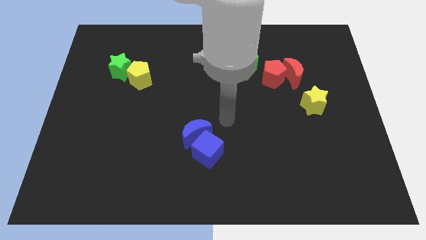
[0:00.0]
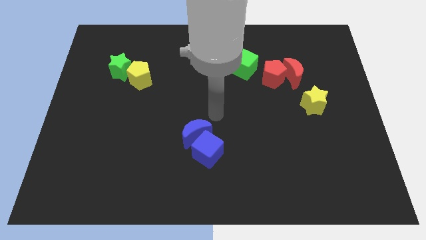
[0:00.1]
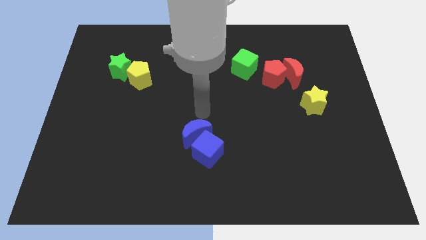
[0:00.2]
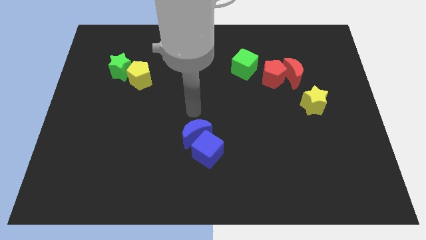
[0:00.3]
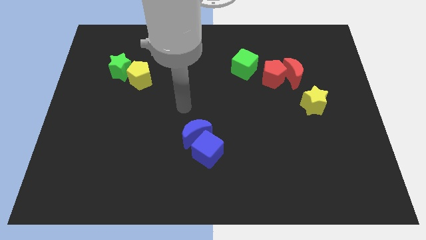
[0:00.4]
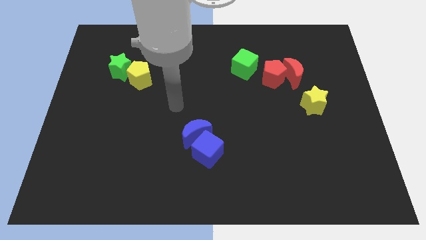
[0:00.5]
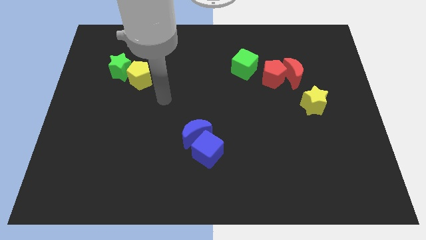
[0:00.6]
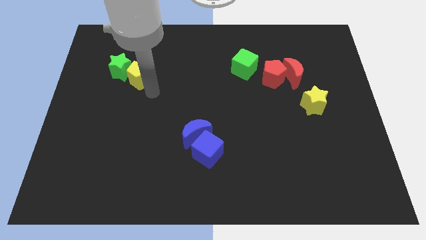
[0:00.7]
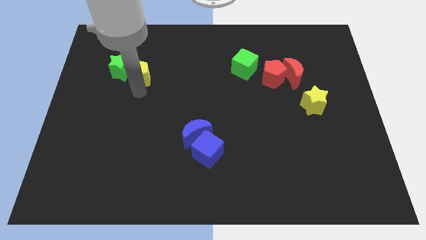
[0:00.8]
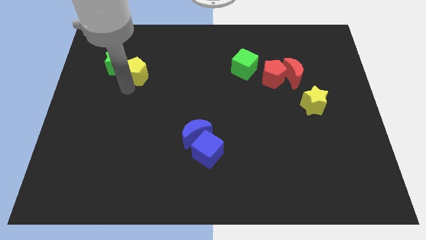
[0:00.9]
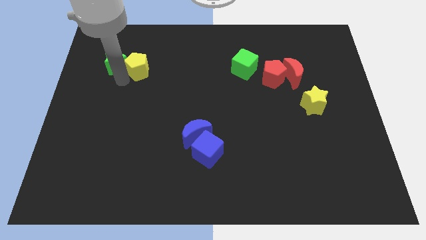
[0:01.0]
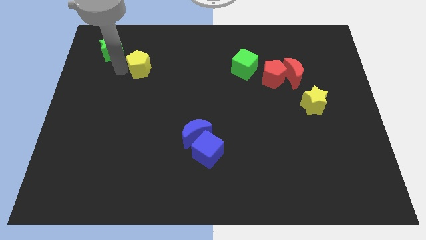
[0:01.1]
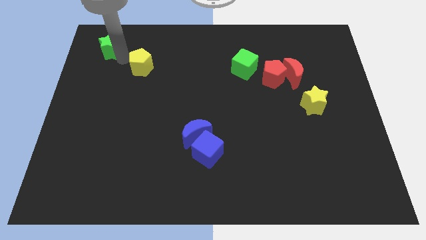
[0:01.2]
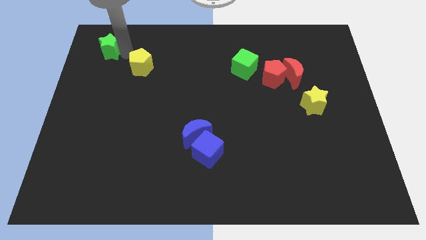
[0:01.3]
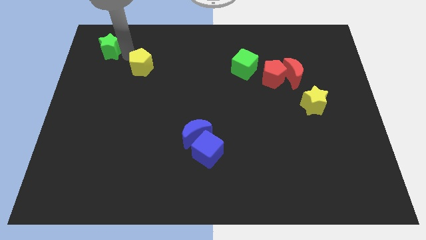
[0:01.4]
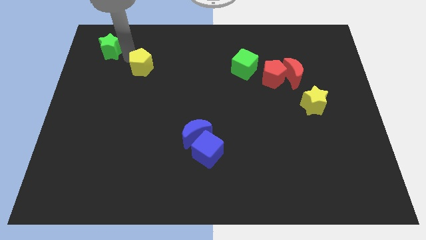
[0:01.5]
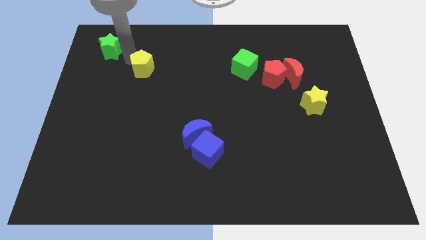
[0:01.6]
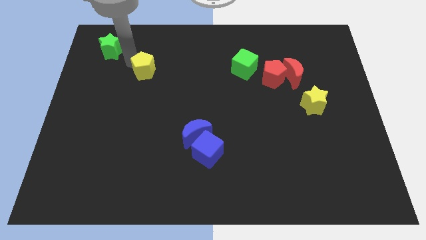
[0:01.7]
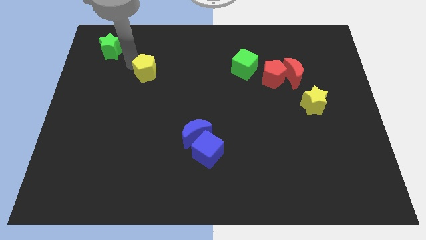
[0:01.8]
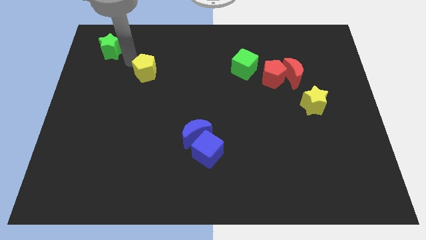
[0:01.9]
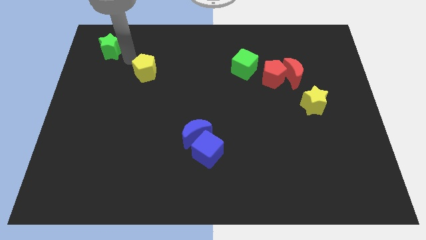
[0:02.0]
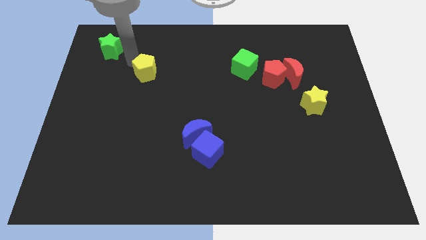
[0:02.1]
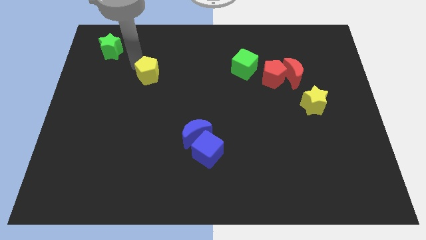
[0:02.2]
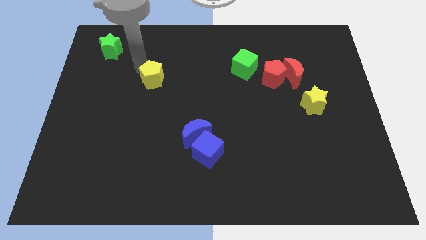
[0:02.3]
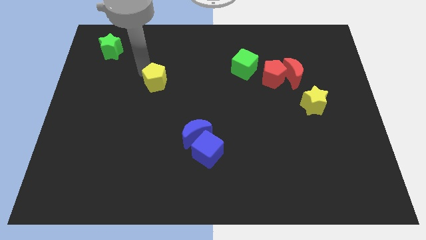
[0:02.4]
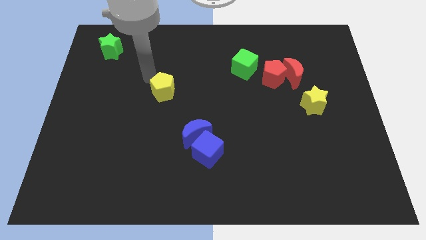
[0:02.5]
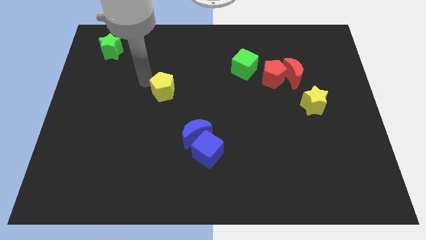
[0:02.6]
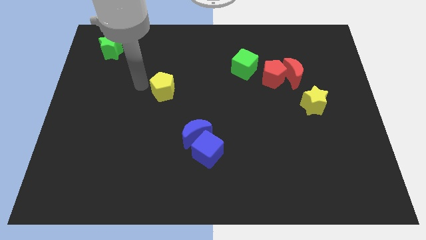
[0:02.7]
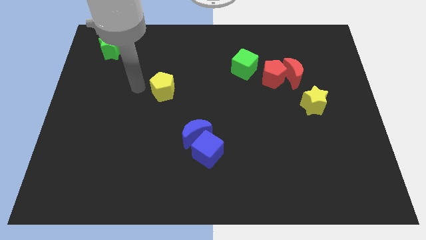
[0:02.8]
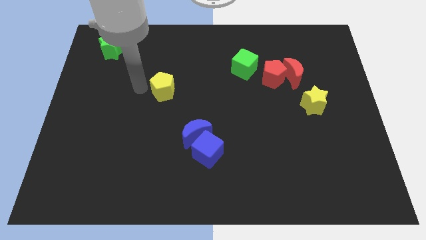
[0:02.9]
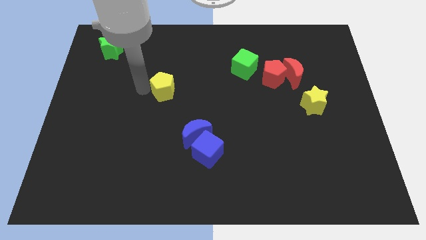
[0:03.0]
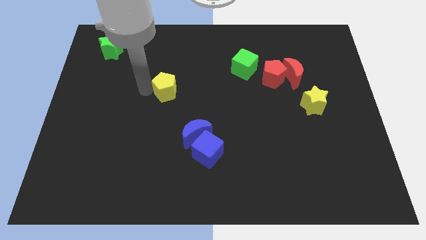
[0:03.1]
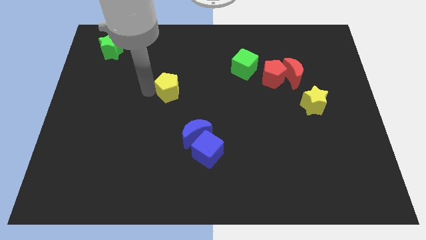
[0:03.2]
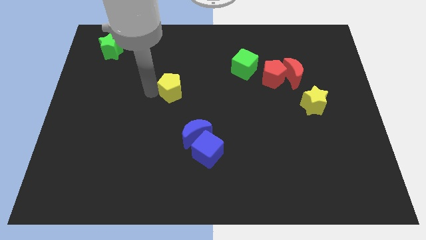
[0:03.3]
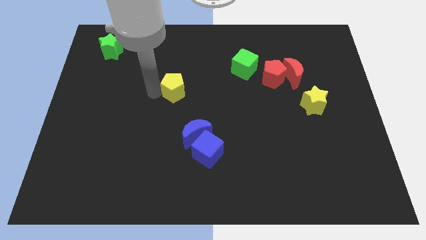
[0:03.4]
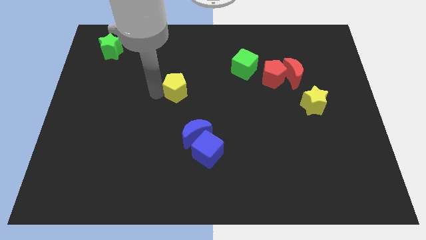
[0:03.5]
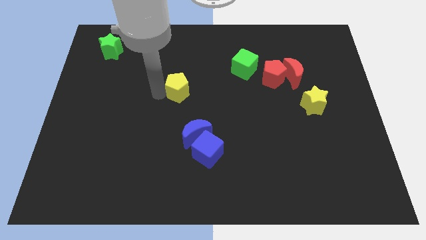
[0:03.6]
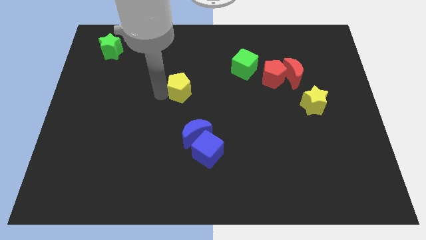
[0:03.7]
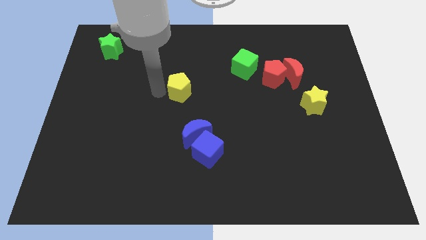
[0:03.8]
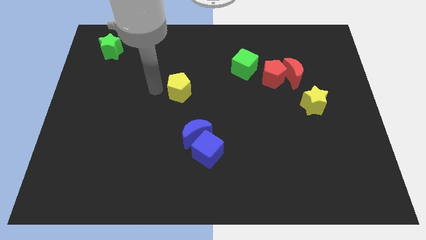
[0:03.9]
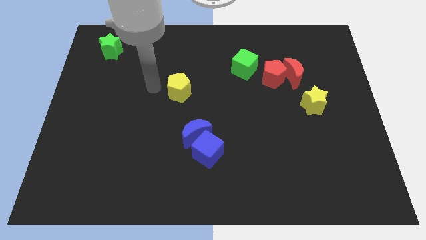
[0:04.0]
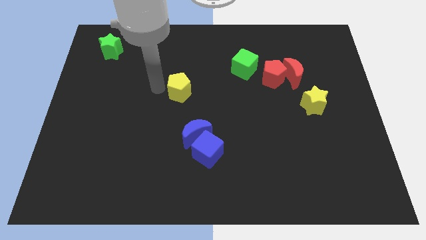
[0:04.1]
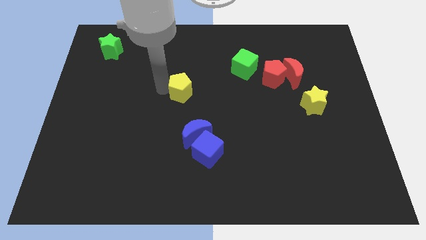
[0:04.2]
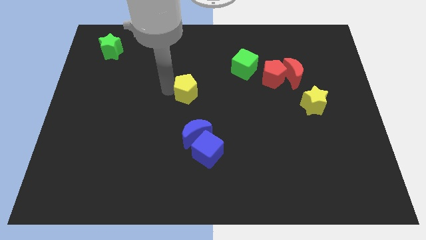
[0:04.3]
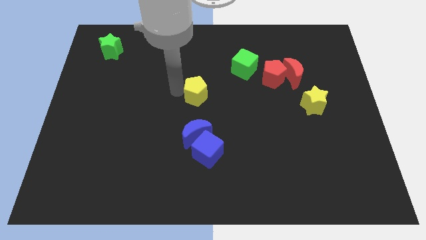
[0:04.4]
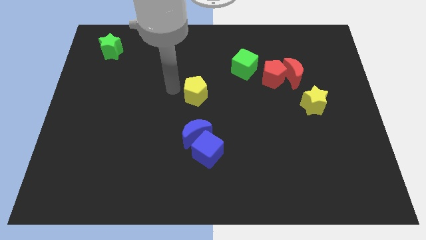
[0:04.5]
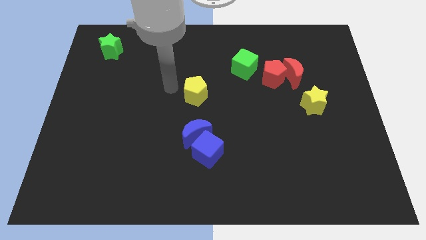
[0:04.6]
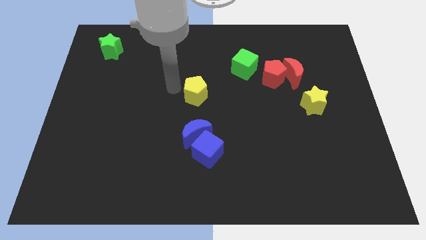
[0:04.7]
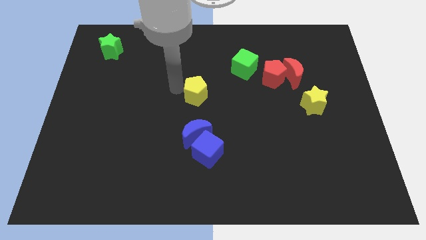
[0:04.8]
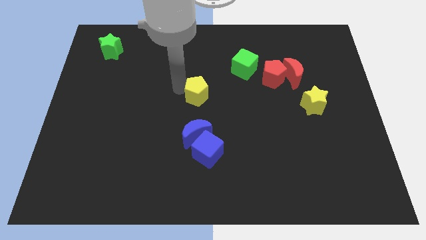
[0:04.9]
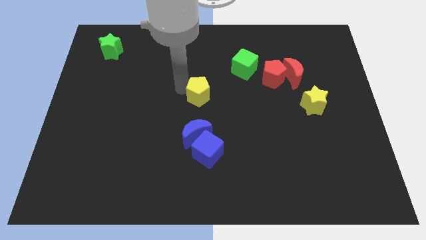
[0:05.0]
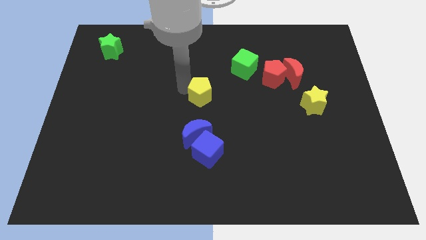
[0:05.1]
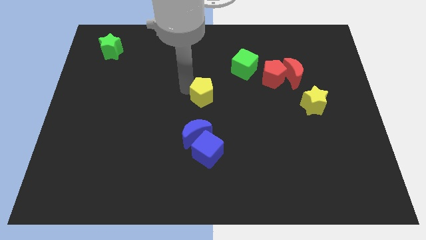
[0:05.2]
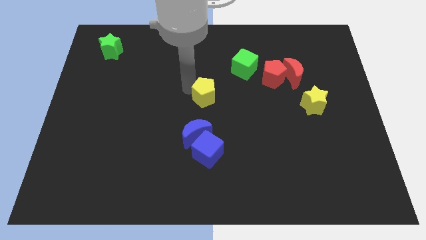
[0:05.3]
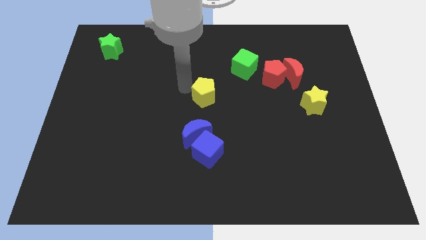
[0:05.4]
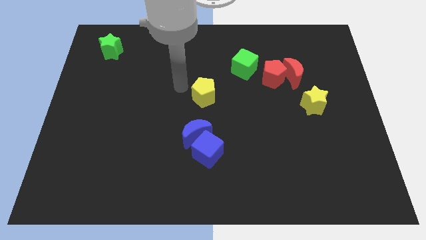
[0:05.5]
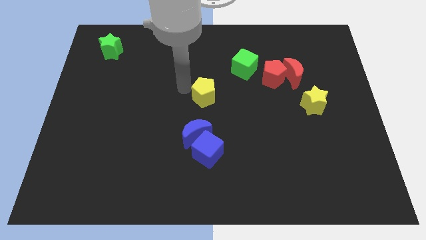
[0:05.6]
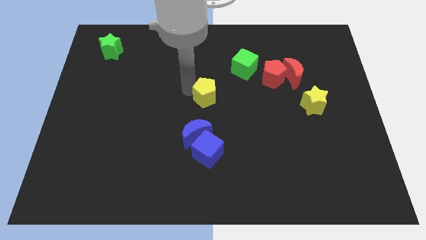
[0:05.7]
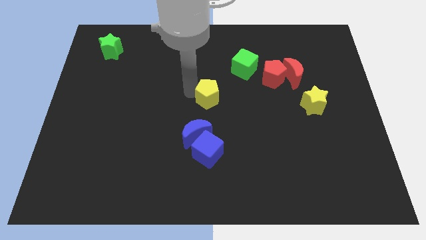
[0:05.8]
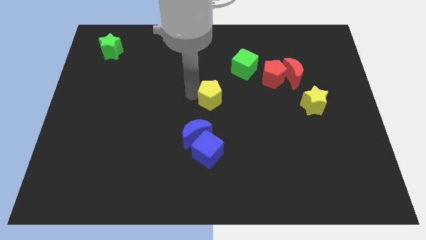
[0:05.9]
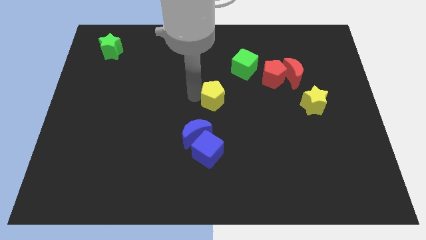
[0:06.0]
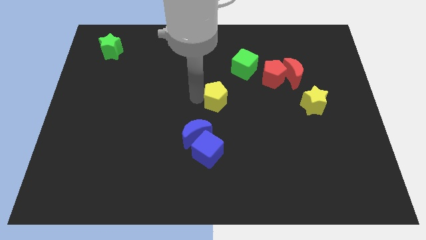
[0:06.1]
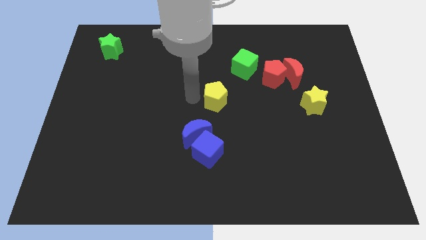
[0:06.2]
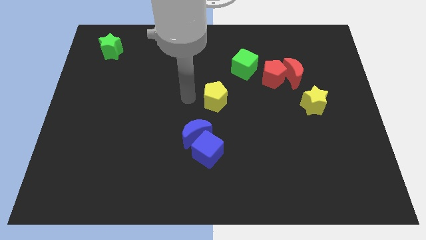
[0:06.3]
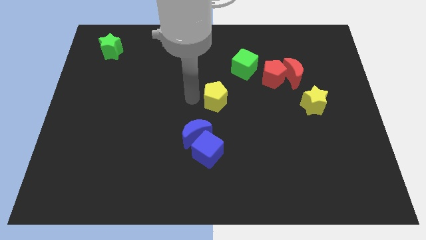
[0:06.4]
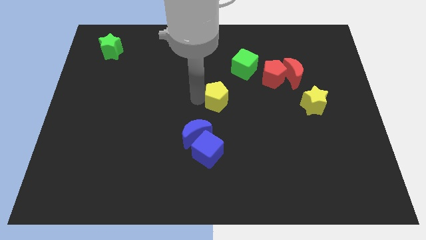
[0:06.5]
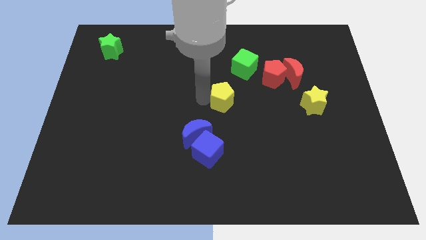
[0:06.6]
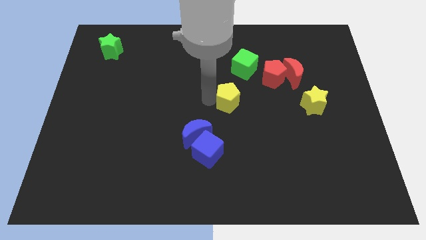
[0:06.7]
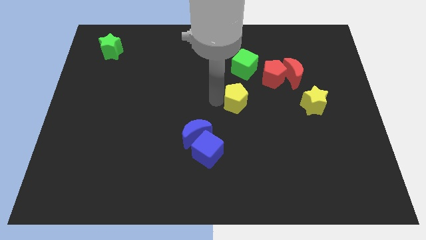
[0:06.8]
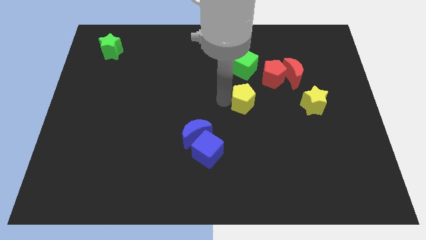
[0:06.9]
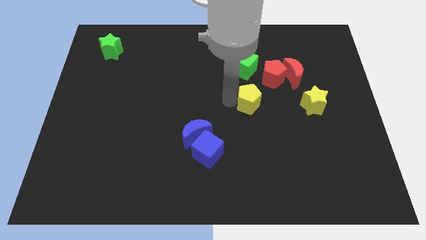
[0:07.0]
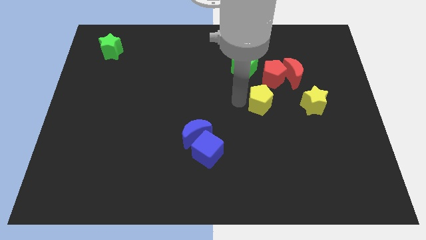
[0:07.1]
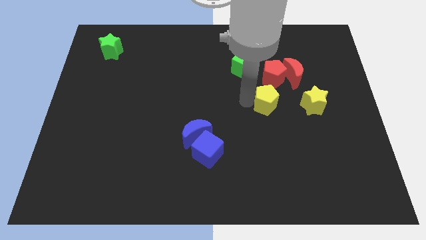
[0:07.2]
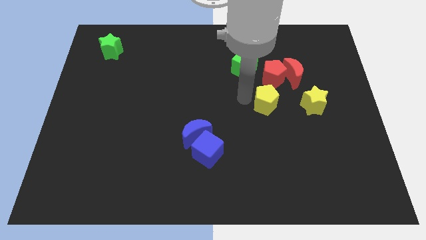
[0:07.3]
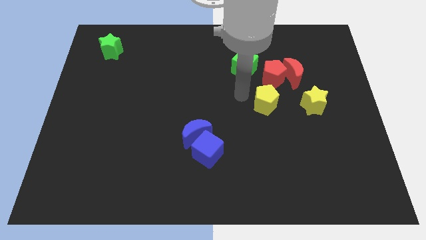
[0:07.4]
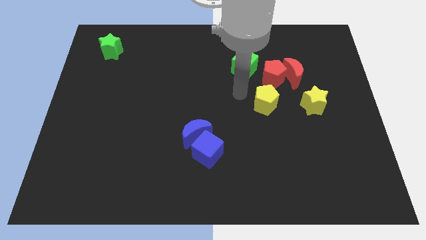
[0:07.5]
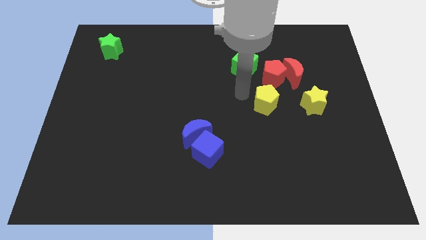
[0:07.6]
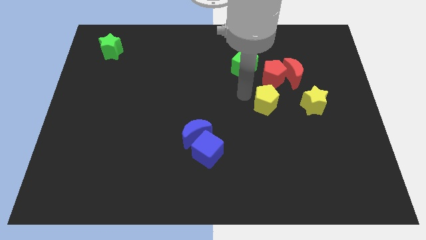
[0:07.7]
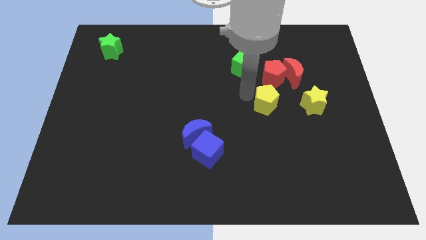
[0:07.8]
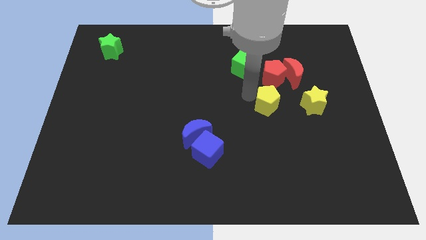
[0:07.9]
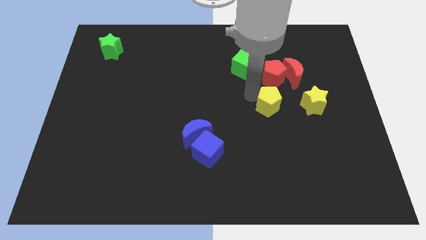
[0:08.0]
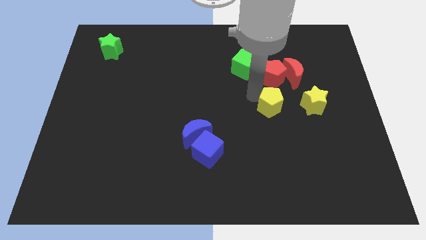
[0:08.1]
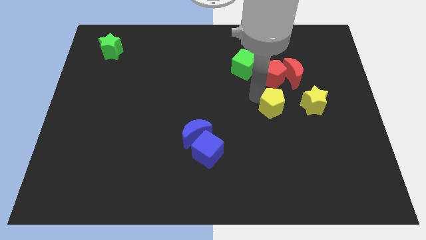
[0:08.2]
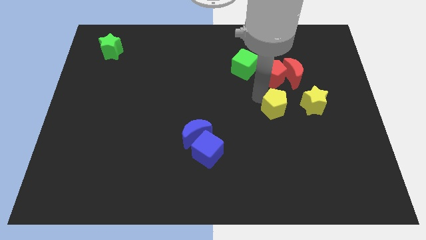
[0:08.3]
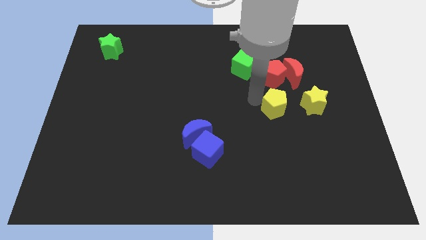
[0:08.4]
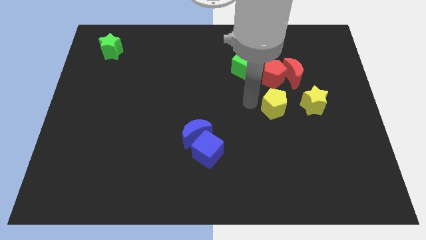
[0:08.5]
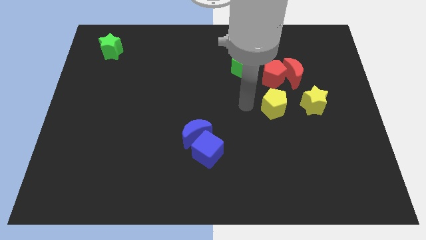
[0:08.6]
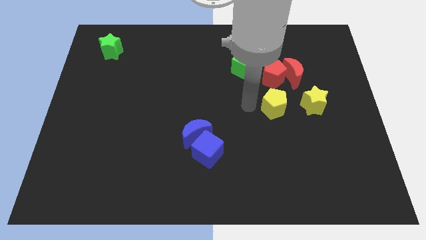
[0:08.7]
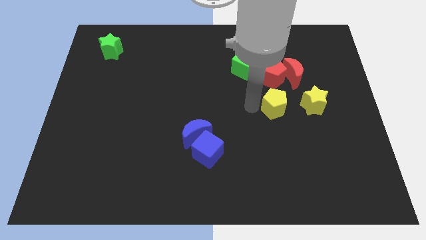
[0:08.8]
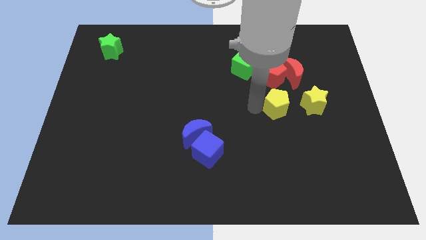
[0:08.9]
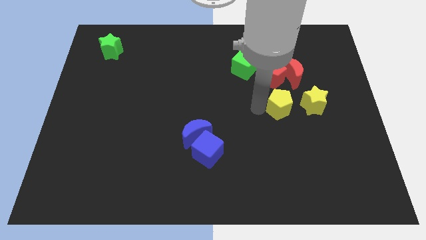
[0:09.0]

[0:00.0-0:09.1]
put the yellow pentagon to the bottom side of the red moon
